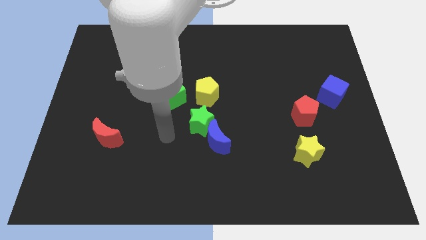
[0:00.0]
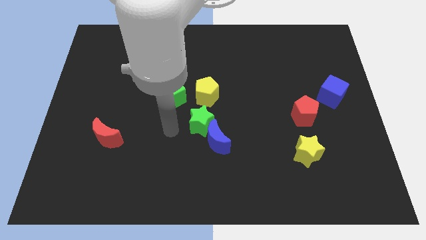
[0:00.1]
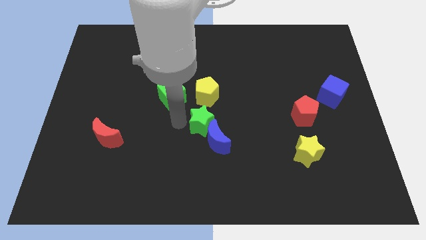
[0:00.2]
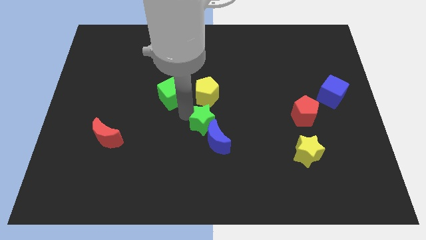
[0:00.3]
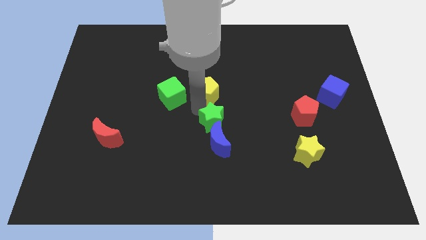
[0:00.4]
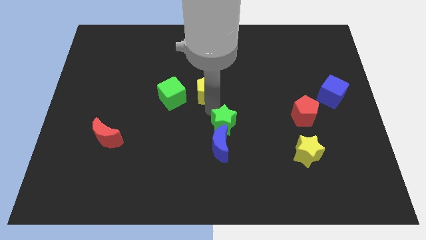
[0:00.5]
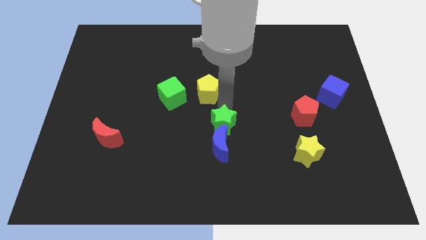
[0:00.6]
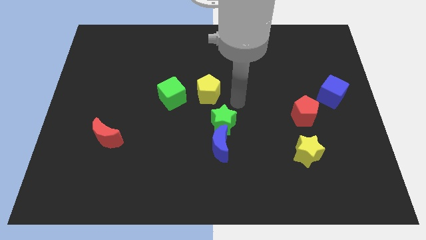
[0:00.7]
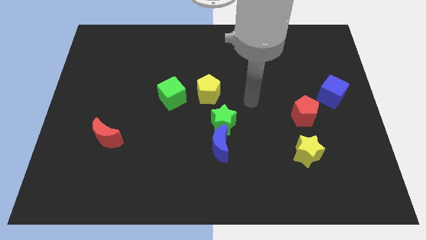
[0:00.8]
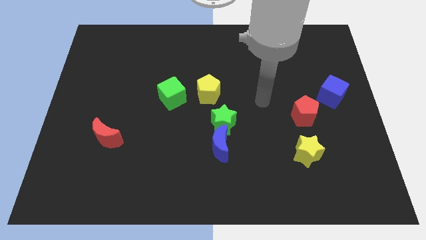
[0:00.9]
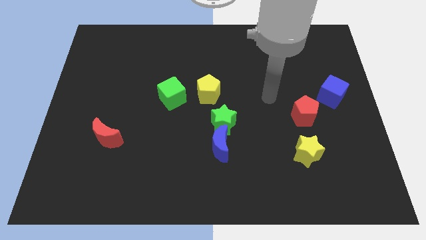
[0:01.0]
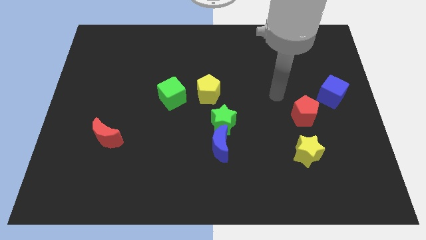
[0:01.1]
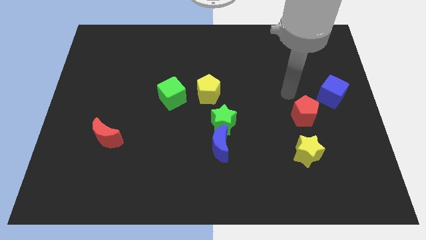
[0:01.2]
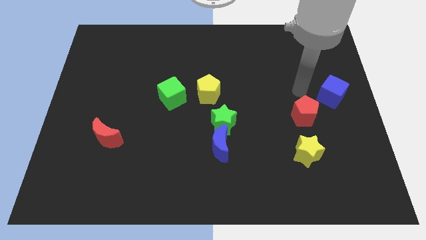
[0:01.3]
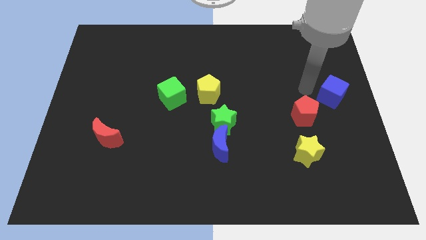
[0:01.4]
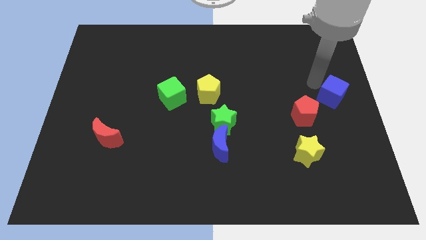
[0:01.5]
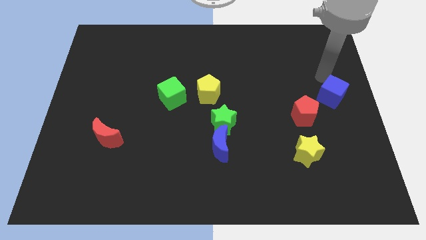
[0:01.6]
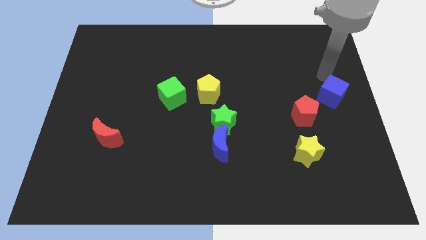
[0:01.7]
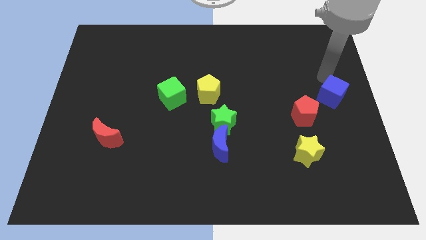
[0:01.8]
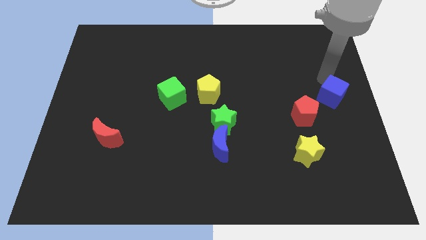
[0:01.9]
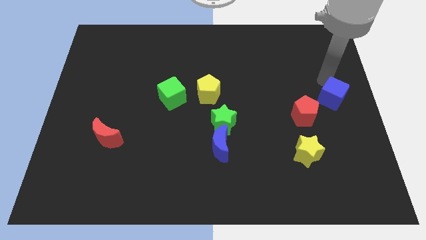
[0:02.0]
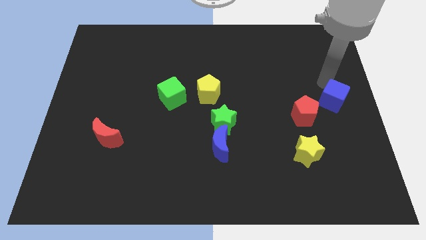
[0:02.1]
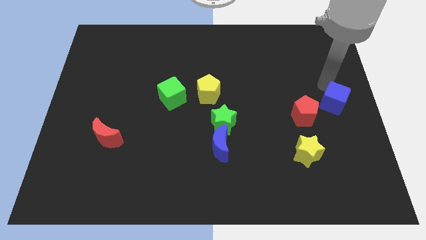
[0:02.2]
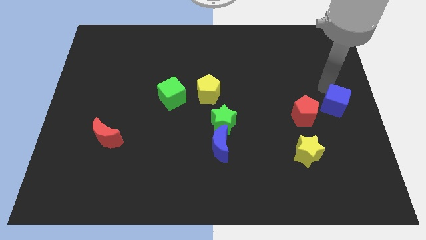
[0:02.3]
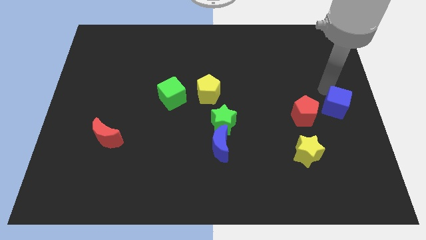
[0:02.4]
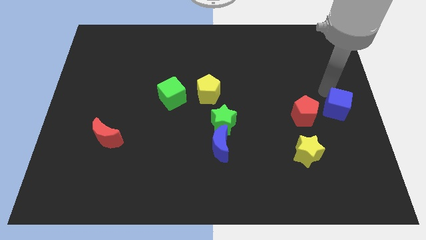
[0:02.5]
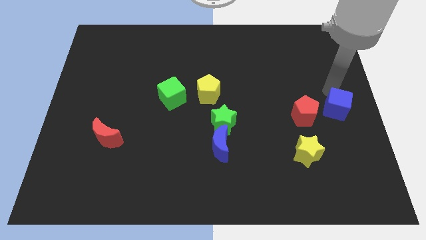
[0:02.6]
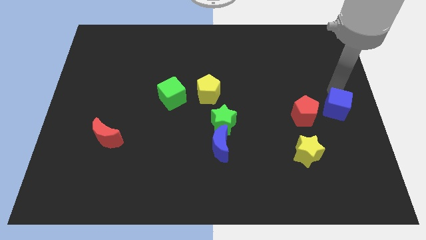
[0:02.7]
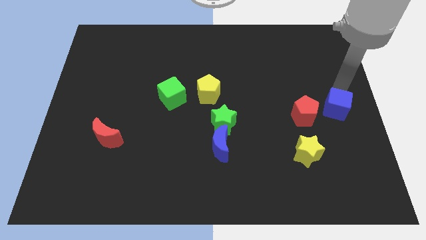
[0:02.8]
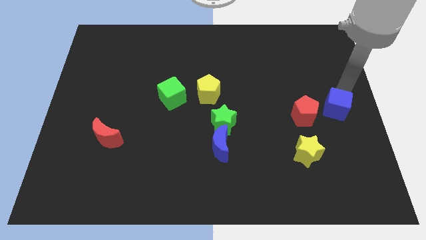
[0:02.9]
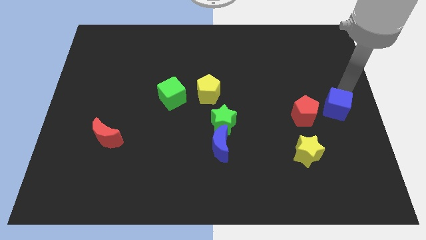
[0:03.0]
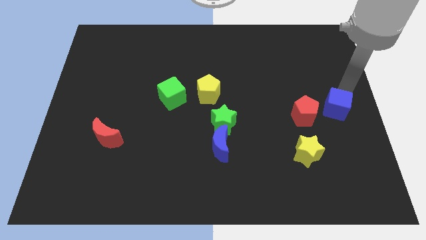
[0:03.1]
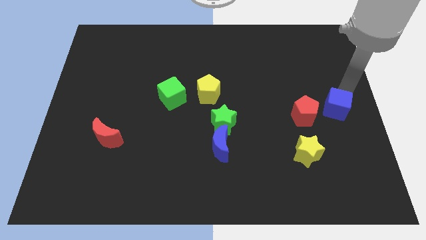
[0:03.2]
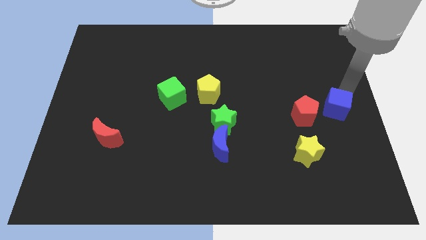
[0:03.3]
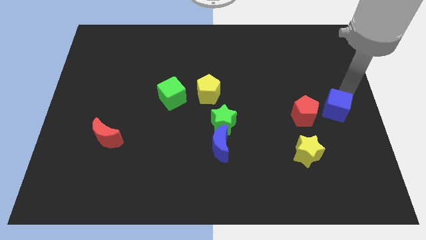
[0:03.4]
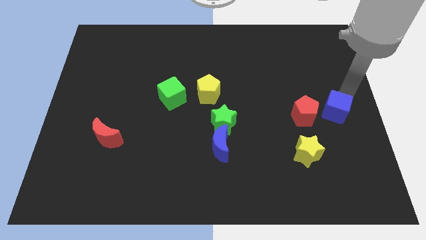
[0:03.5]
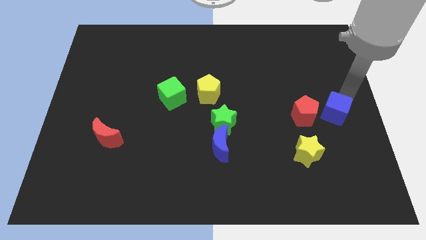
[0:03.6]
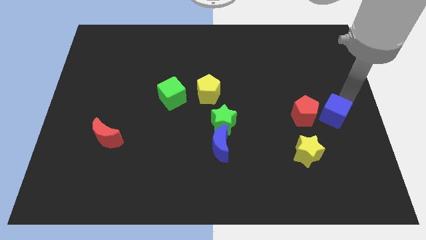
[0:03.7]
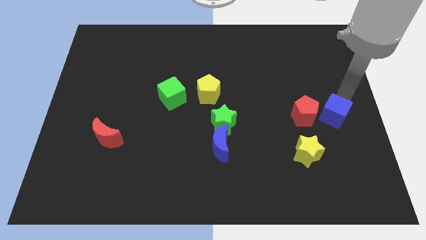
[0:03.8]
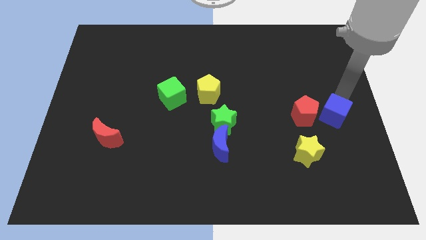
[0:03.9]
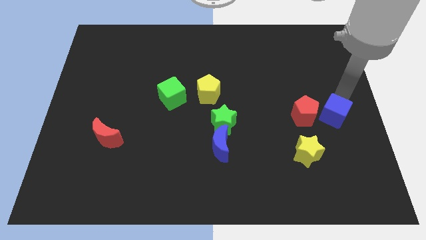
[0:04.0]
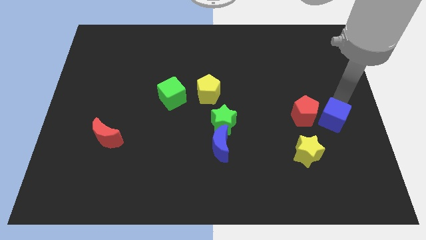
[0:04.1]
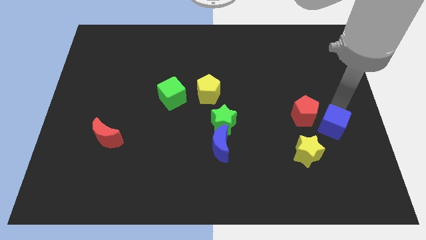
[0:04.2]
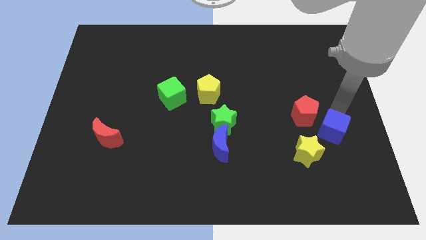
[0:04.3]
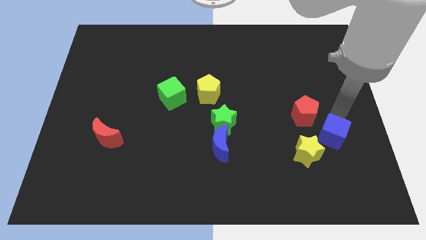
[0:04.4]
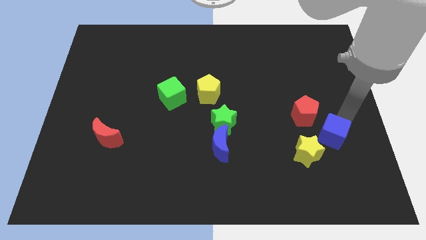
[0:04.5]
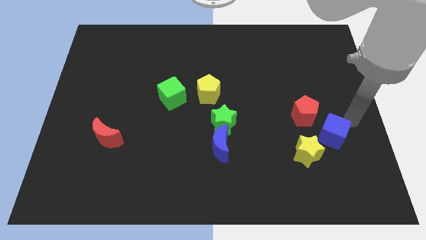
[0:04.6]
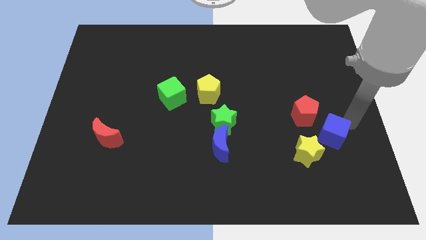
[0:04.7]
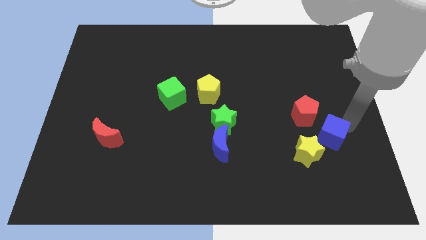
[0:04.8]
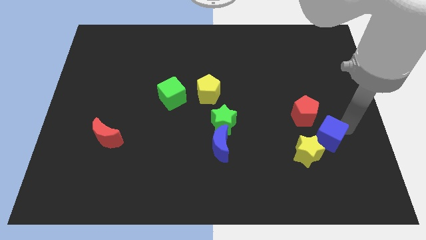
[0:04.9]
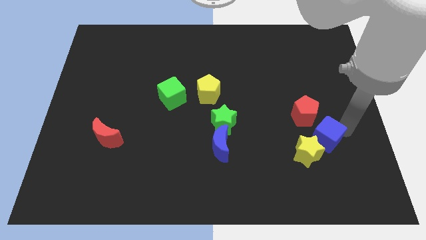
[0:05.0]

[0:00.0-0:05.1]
put the blue cube to the yellow star

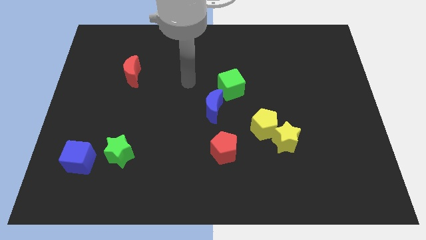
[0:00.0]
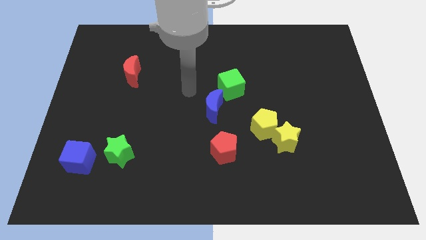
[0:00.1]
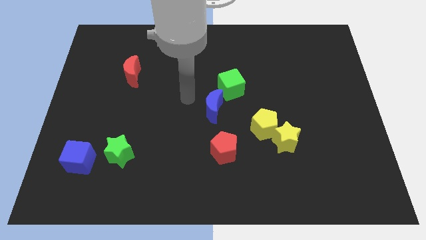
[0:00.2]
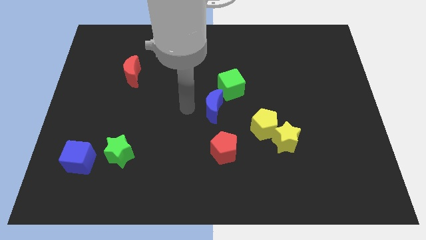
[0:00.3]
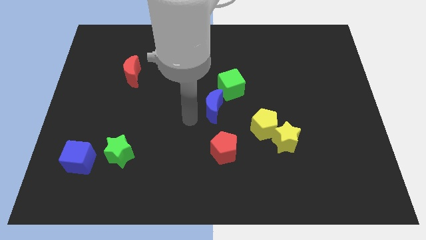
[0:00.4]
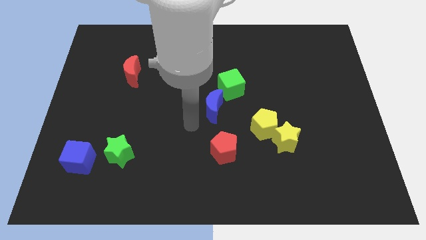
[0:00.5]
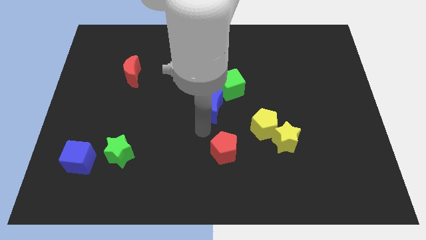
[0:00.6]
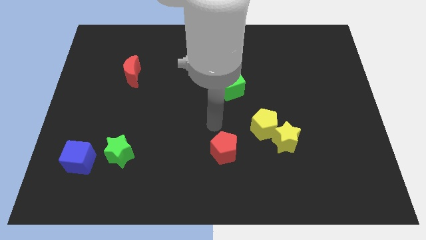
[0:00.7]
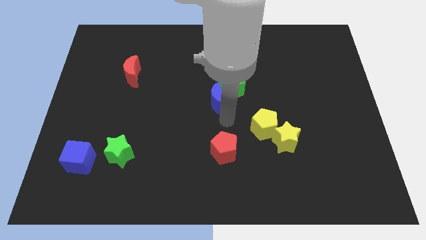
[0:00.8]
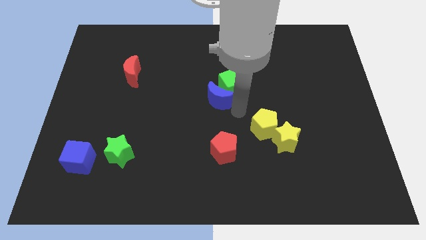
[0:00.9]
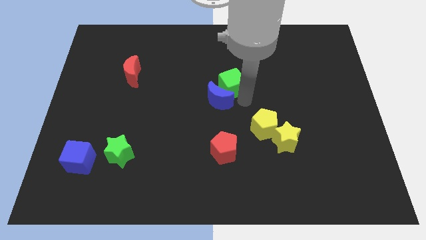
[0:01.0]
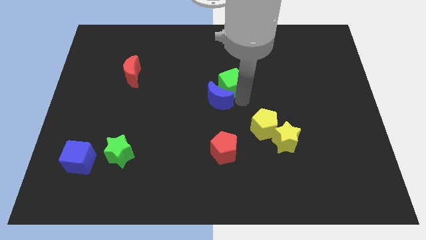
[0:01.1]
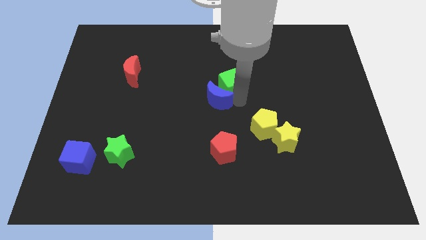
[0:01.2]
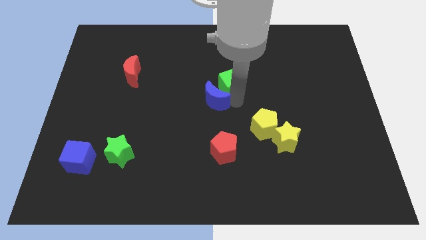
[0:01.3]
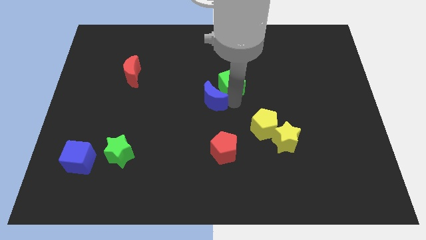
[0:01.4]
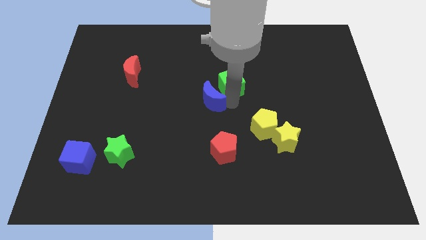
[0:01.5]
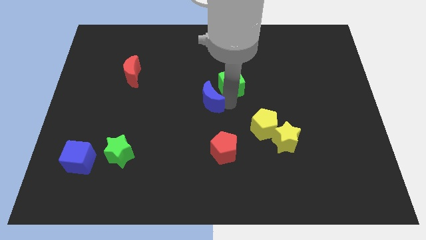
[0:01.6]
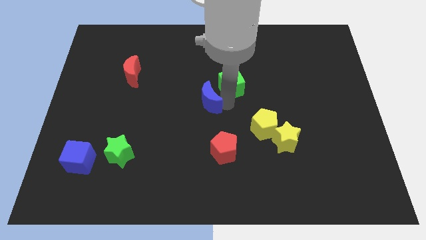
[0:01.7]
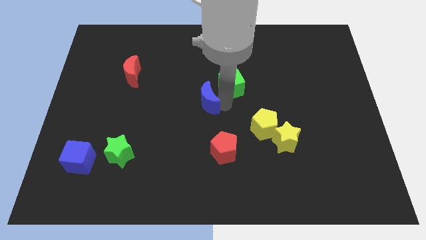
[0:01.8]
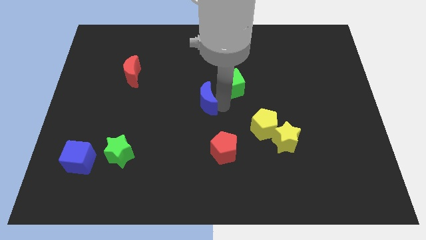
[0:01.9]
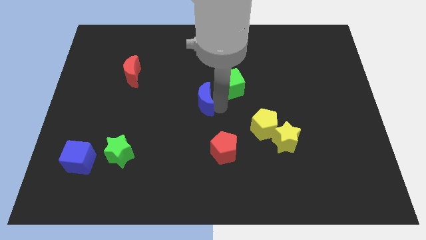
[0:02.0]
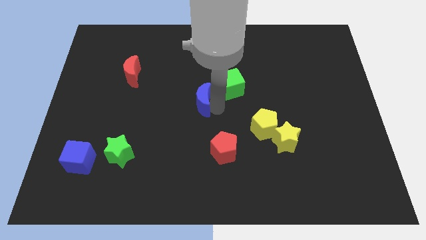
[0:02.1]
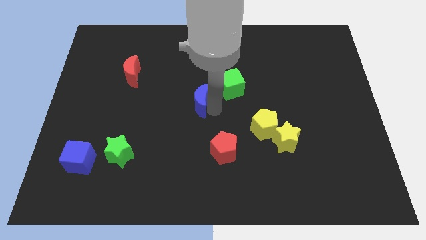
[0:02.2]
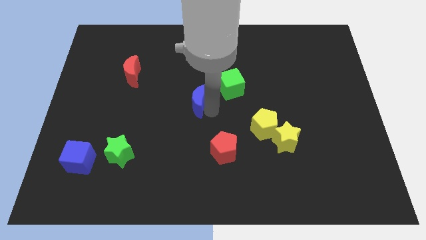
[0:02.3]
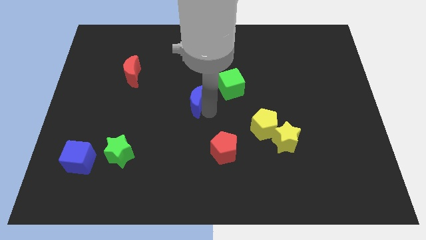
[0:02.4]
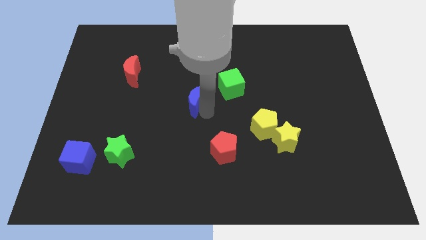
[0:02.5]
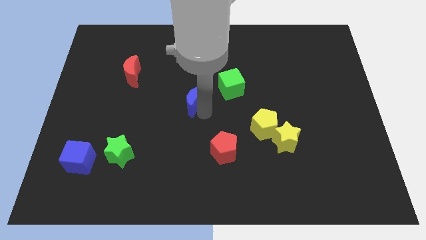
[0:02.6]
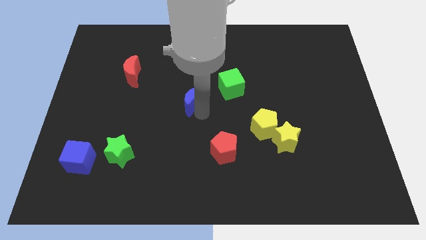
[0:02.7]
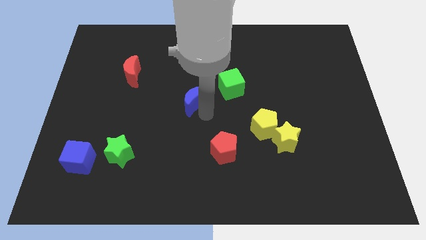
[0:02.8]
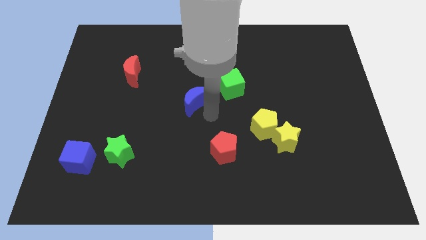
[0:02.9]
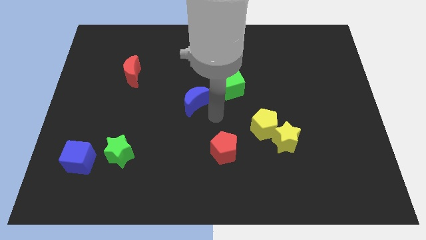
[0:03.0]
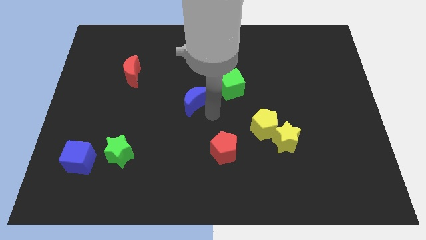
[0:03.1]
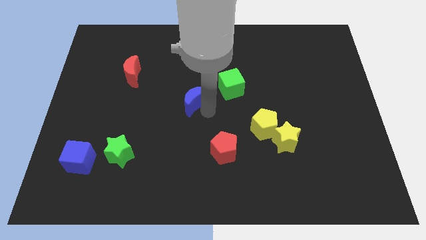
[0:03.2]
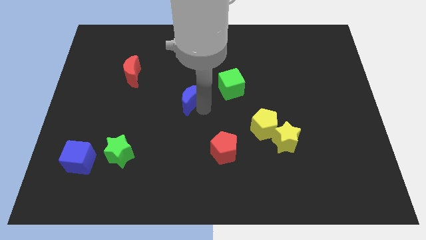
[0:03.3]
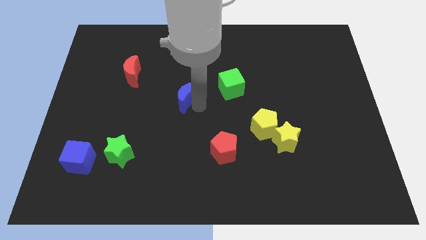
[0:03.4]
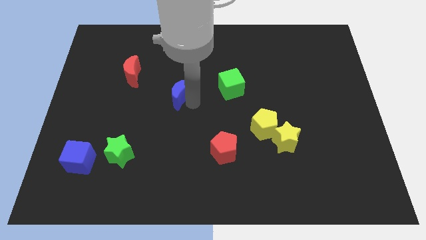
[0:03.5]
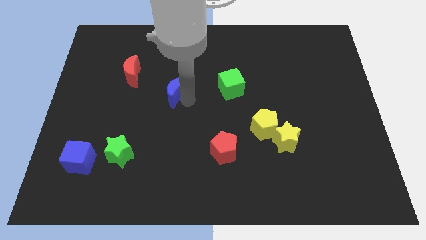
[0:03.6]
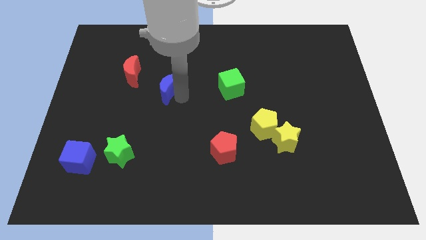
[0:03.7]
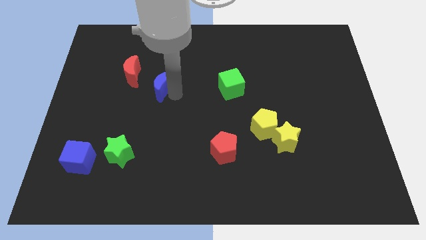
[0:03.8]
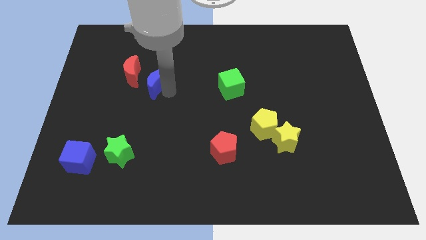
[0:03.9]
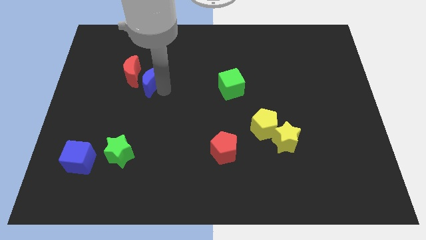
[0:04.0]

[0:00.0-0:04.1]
move the blue moon to the red moon
